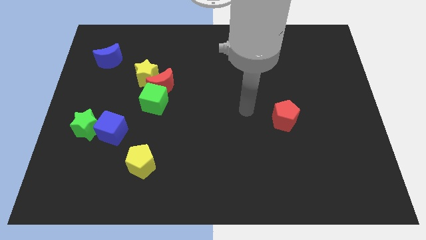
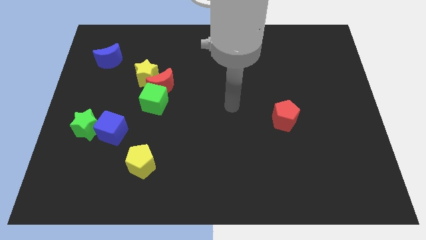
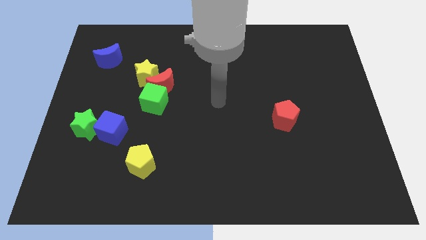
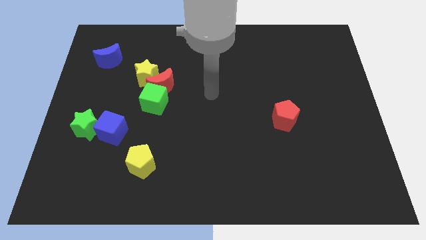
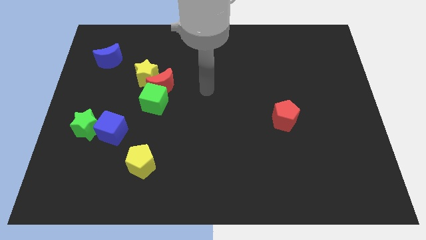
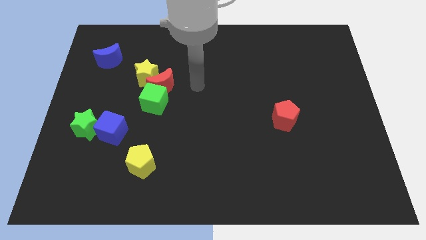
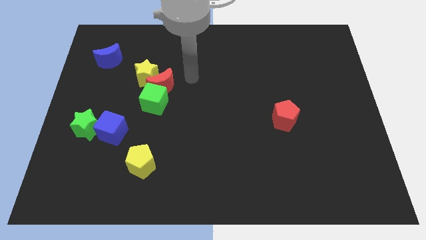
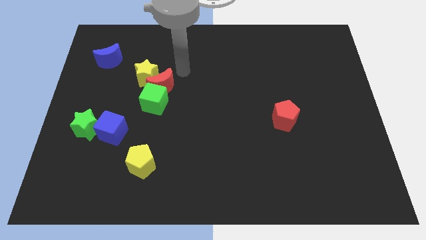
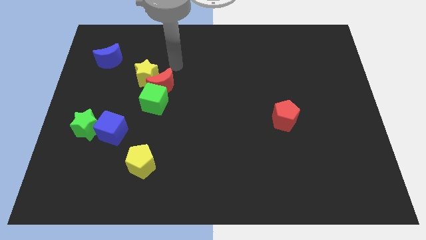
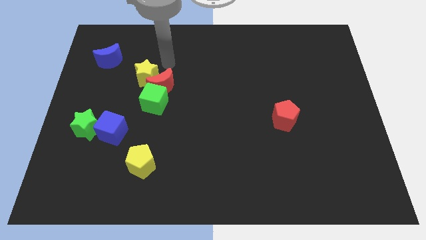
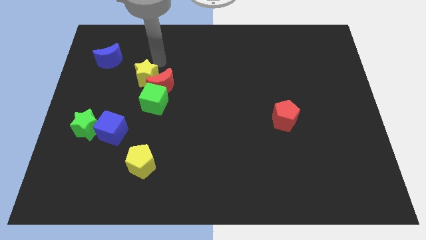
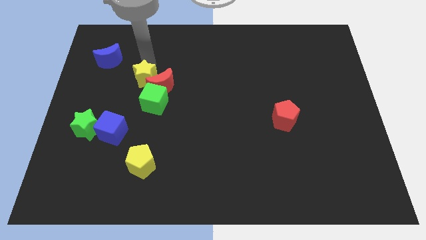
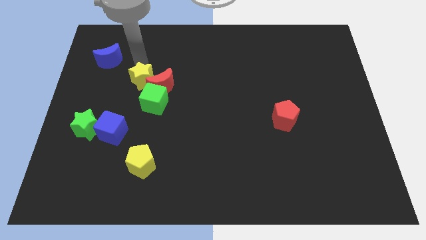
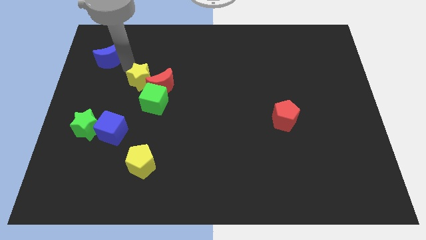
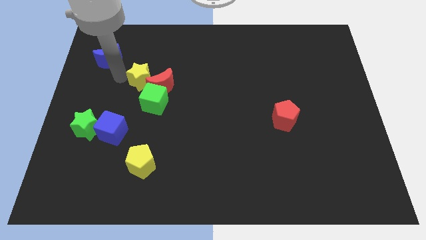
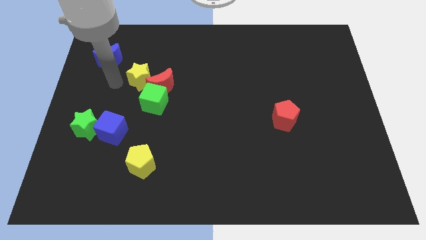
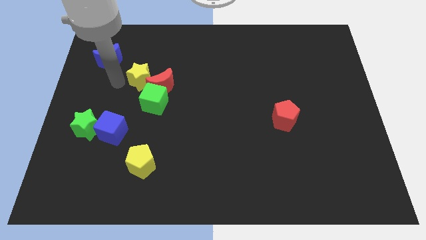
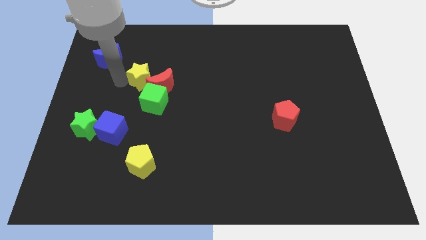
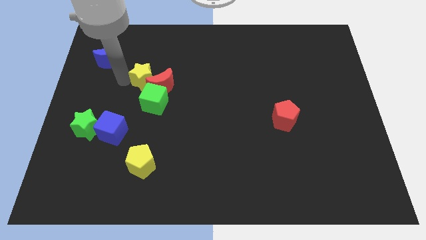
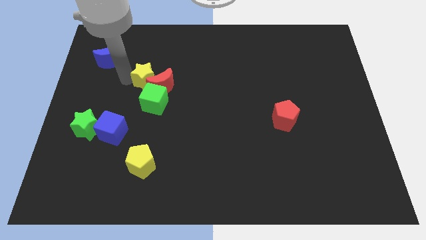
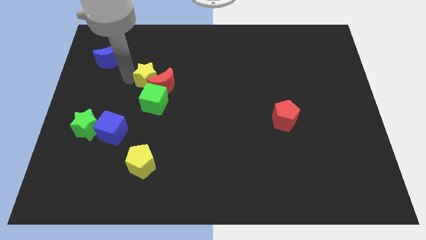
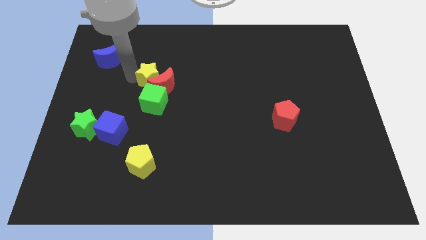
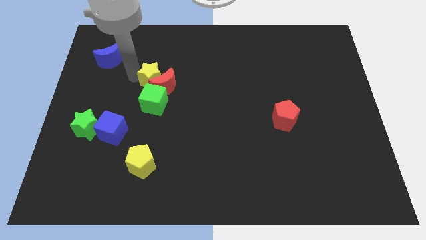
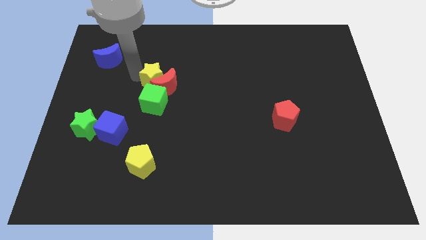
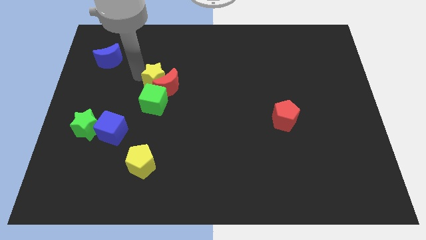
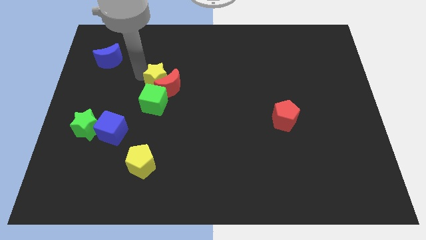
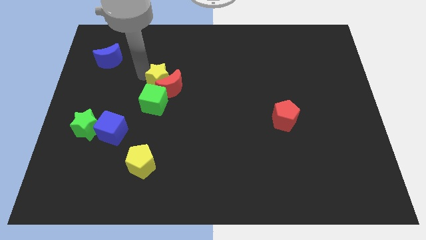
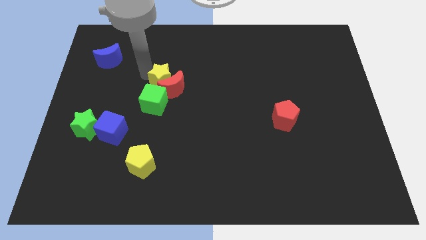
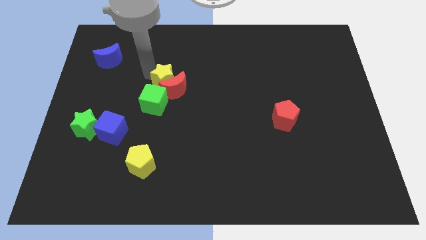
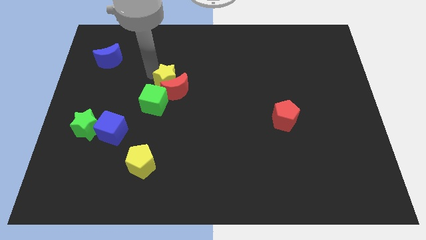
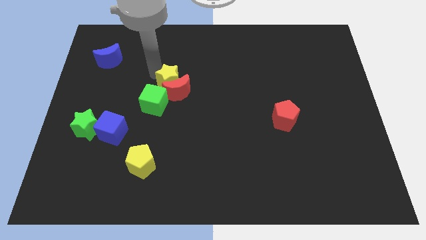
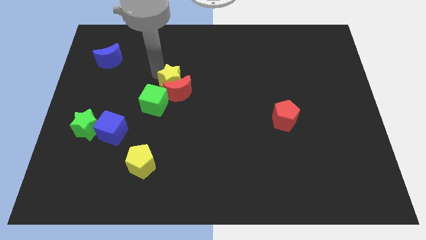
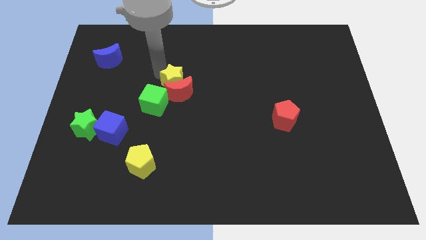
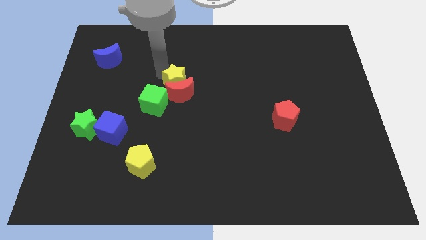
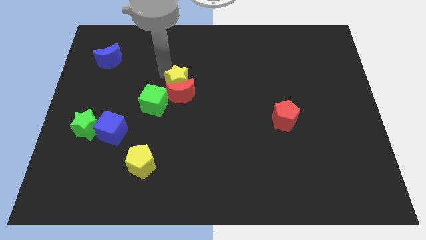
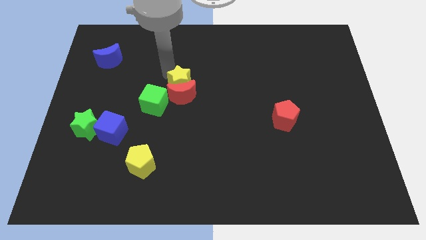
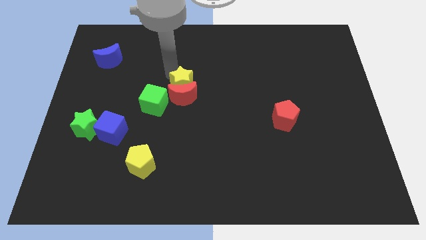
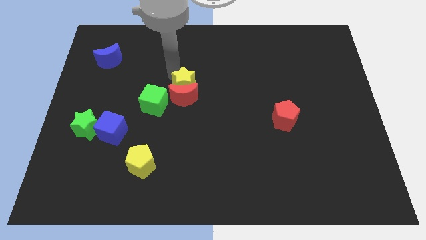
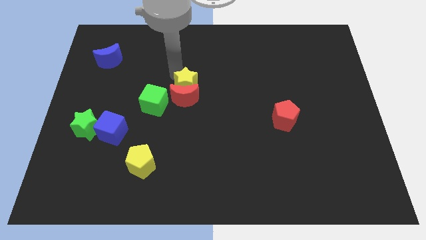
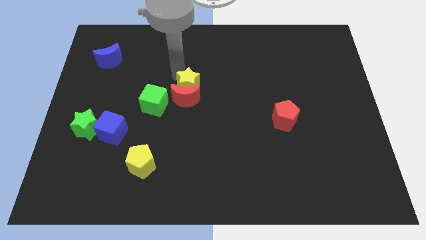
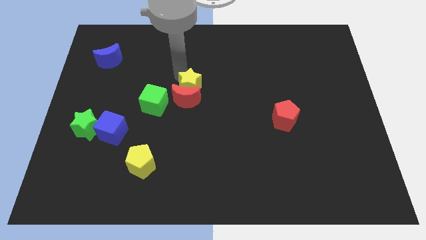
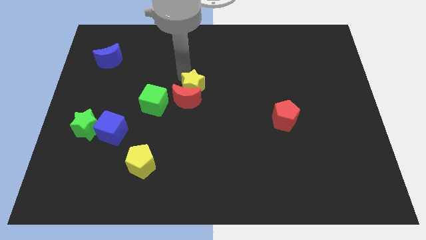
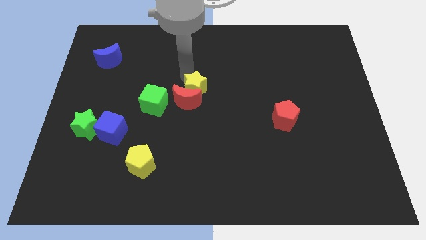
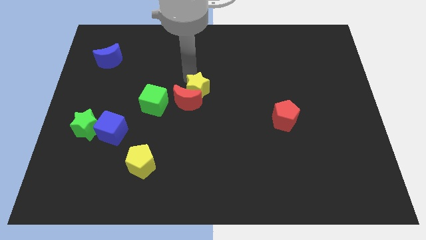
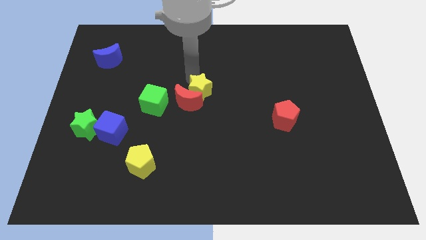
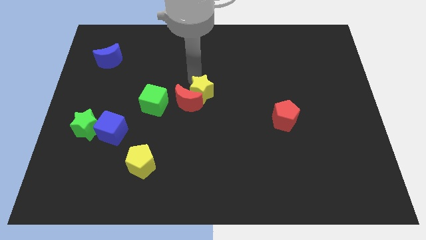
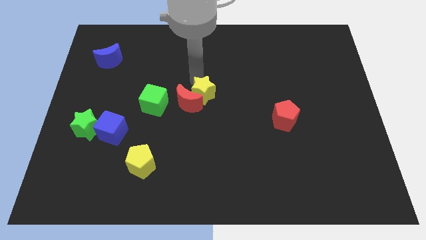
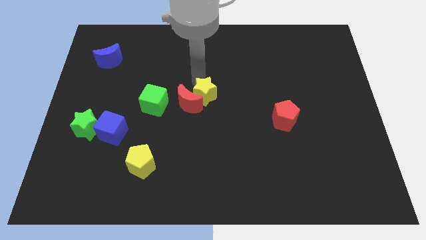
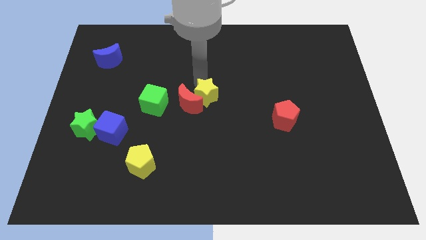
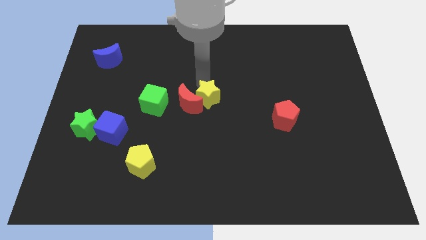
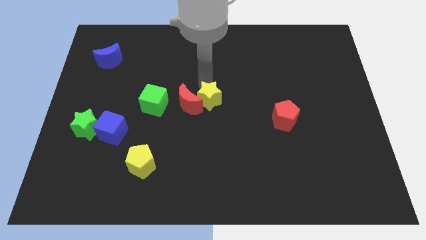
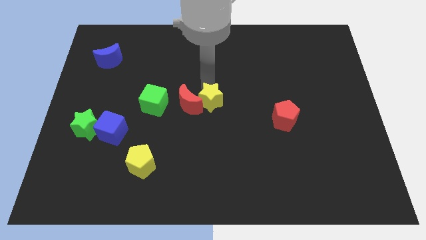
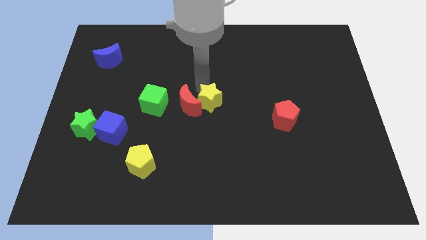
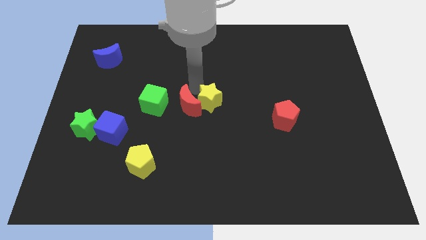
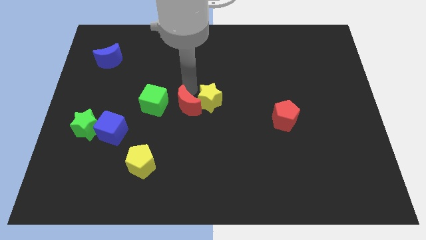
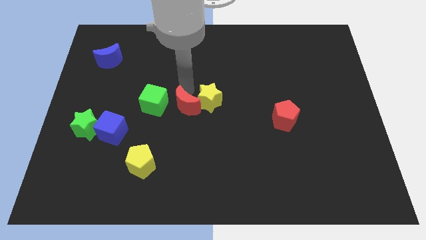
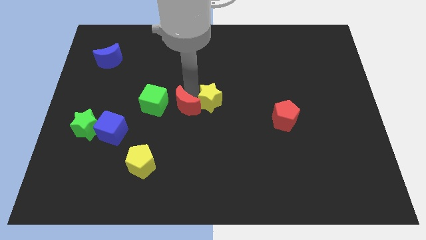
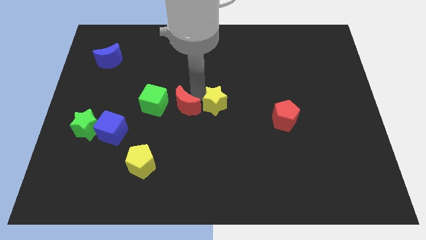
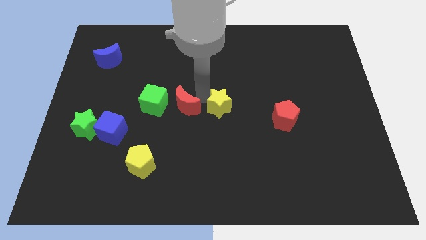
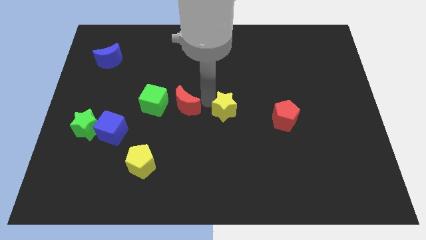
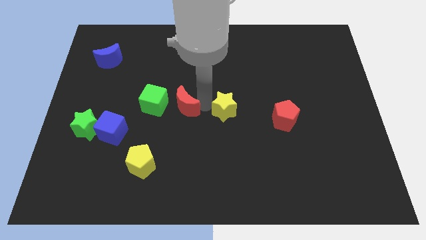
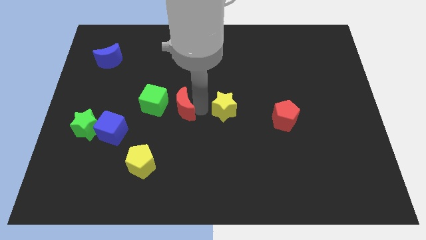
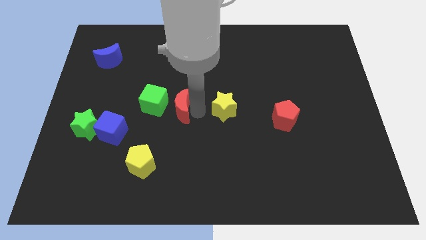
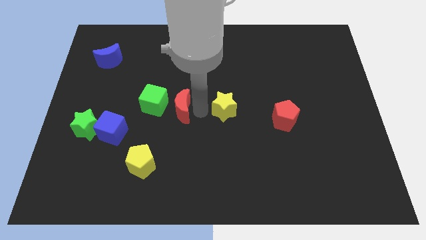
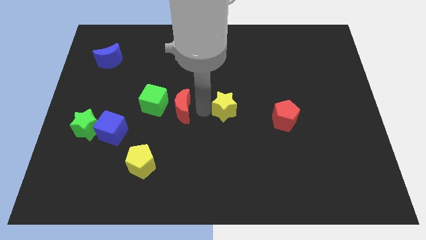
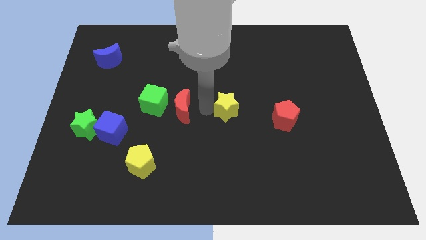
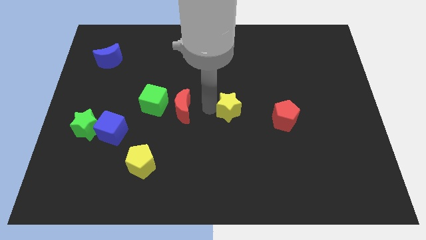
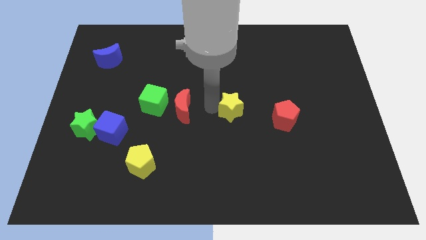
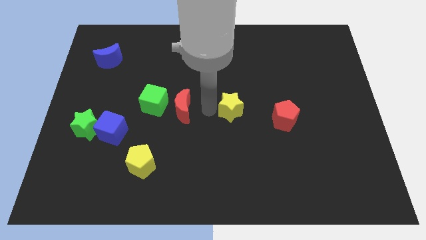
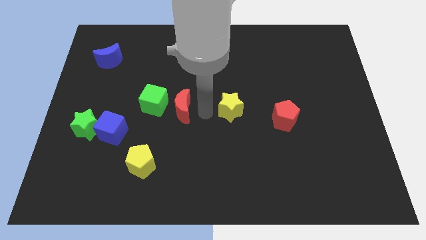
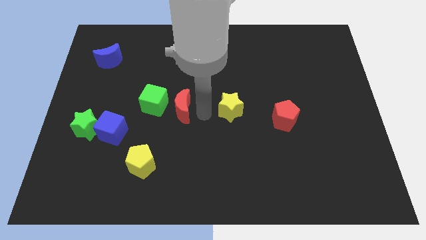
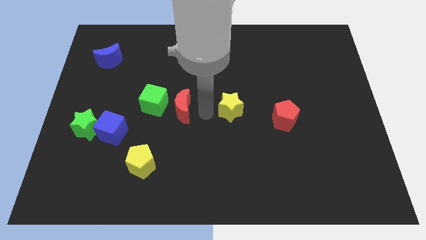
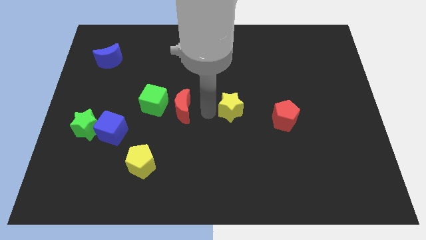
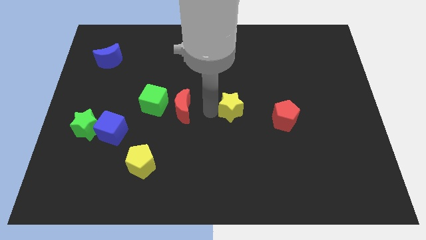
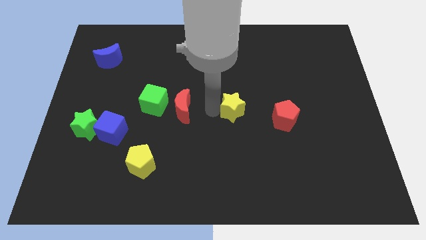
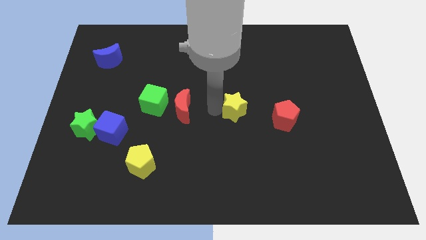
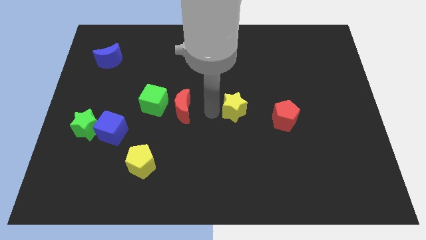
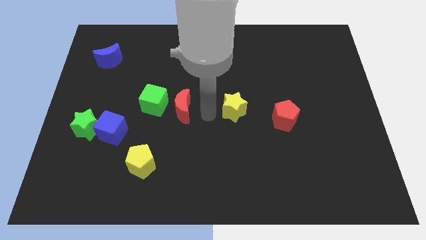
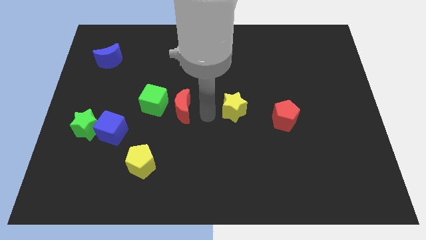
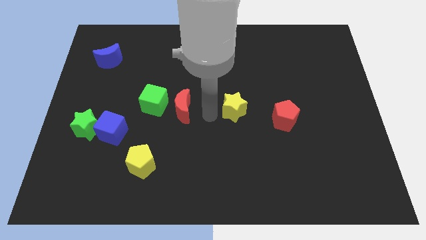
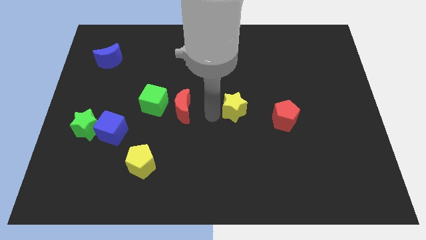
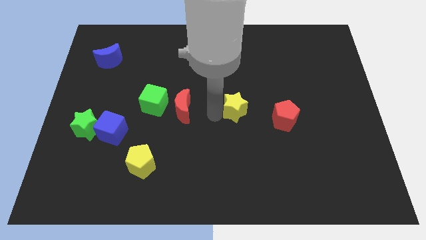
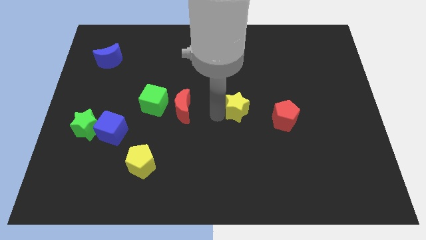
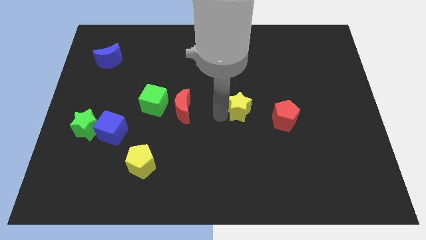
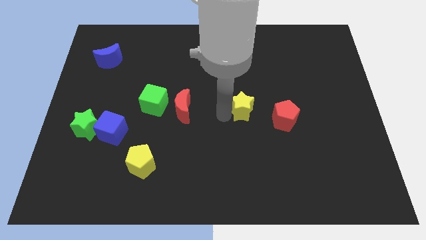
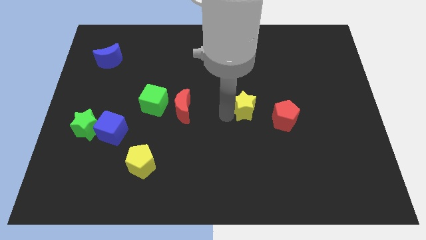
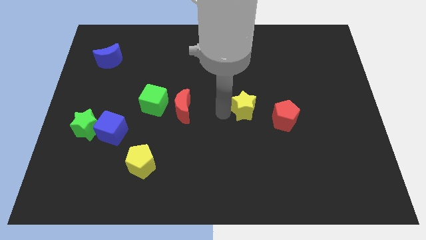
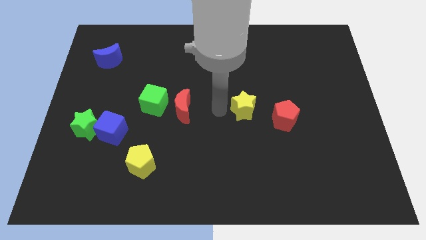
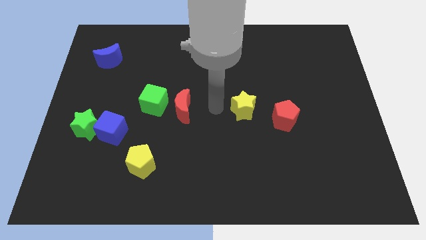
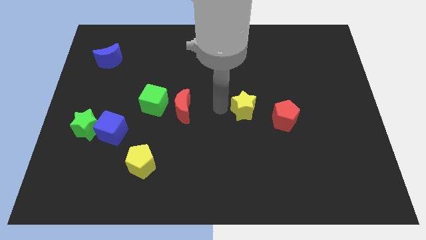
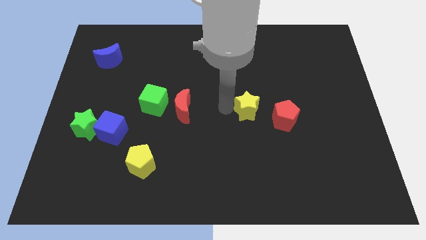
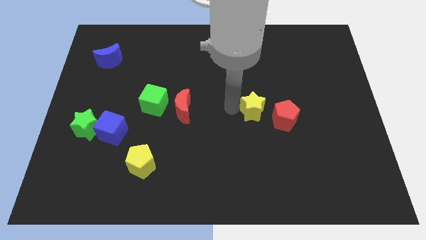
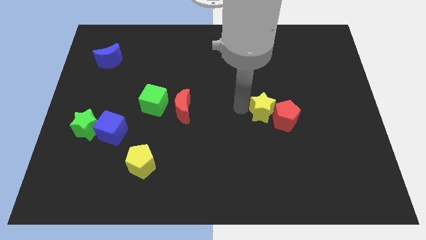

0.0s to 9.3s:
push the yellow star to the red pentagon
